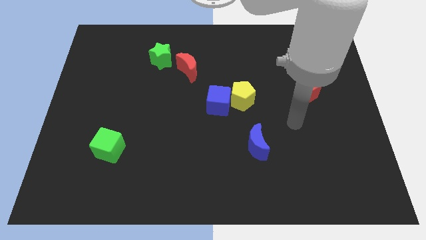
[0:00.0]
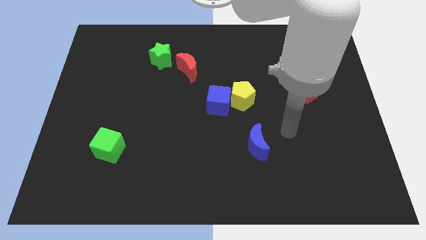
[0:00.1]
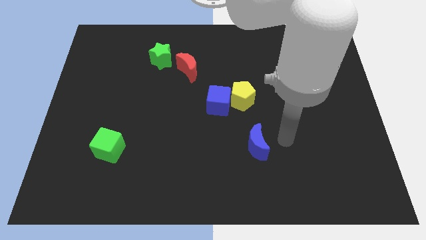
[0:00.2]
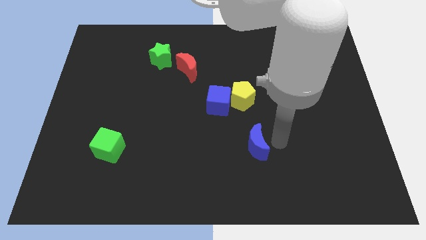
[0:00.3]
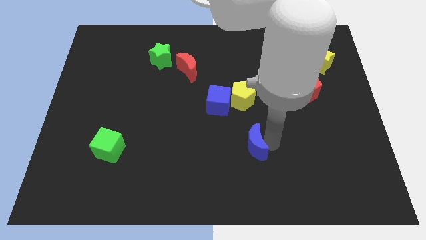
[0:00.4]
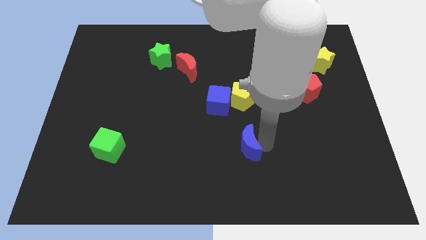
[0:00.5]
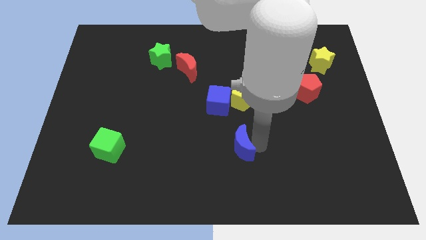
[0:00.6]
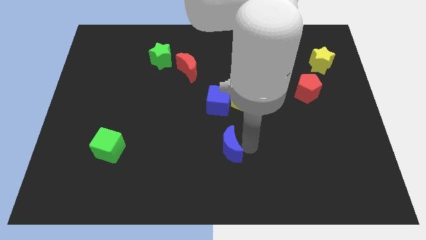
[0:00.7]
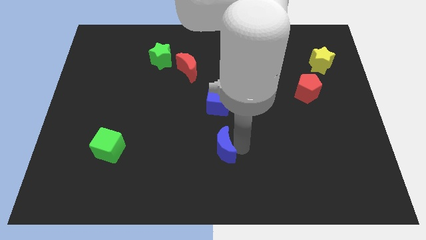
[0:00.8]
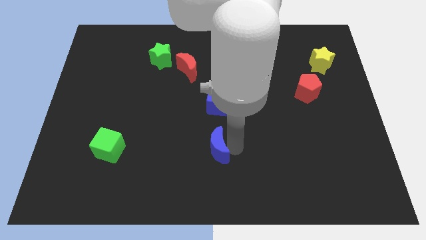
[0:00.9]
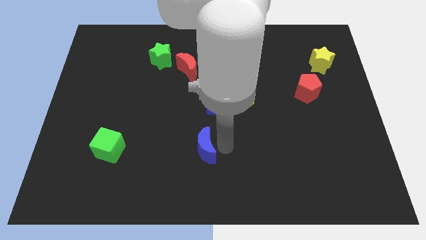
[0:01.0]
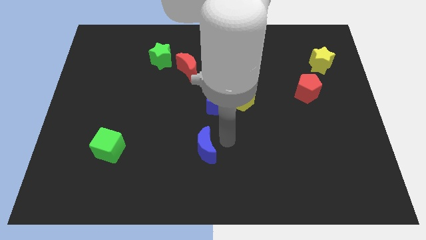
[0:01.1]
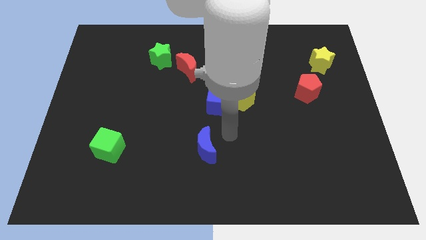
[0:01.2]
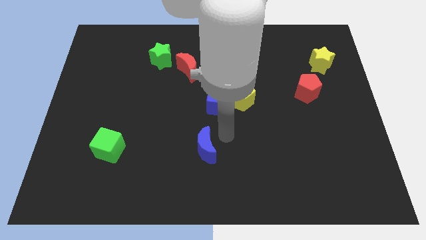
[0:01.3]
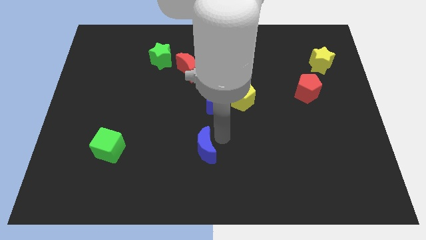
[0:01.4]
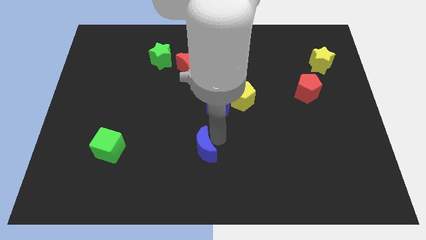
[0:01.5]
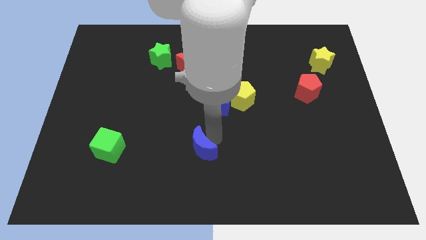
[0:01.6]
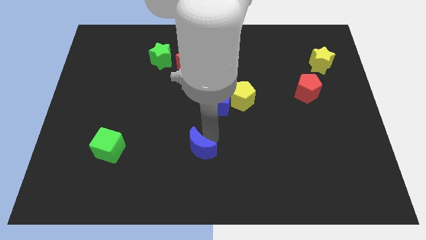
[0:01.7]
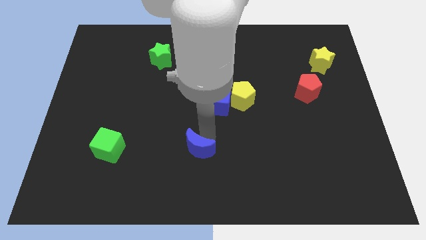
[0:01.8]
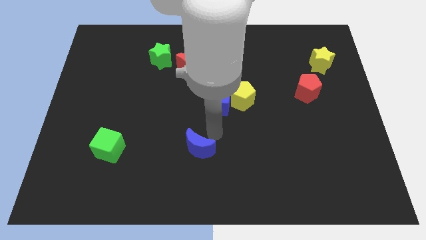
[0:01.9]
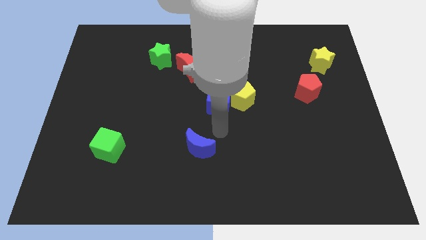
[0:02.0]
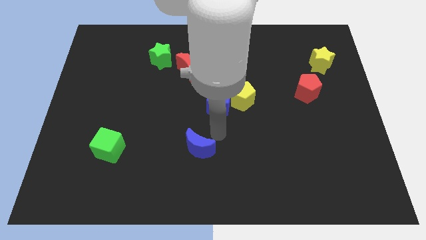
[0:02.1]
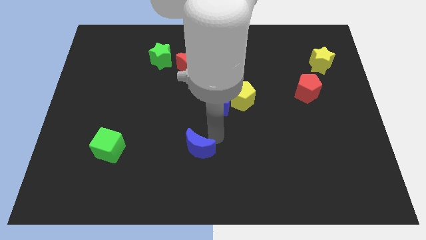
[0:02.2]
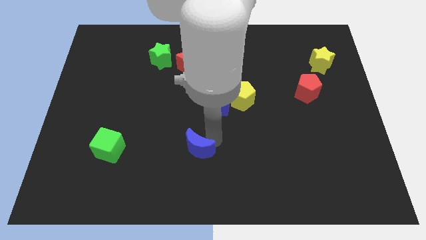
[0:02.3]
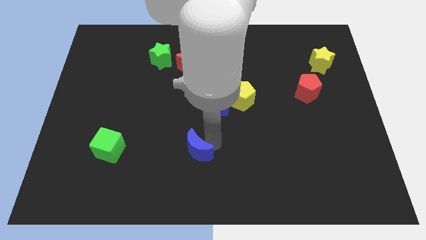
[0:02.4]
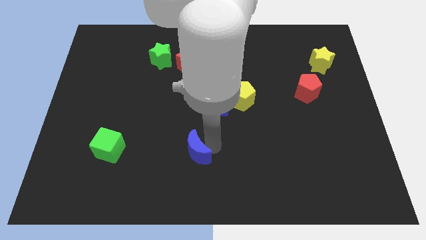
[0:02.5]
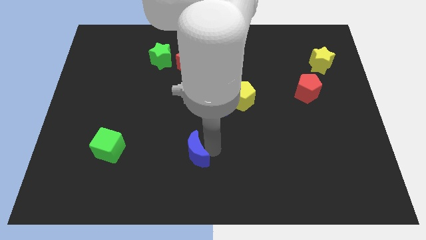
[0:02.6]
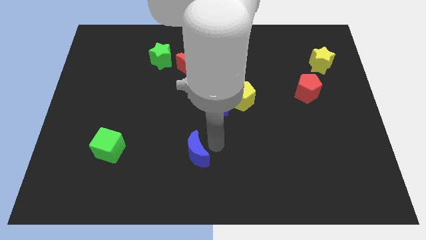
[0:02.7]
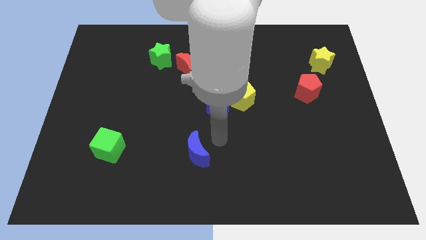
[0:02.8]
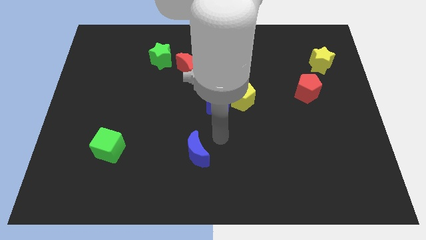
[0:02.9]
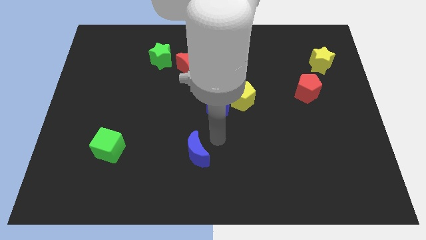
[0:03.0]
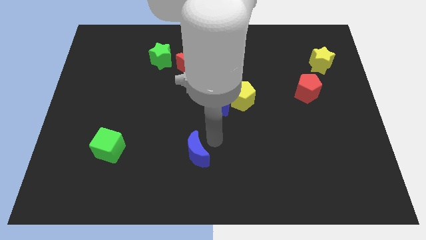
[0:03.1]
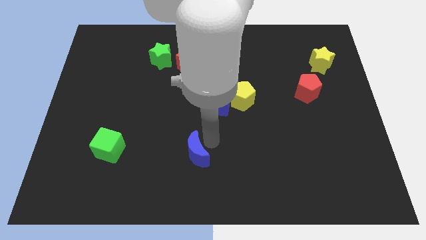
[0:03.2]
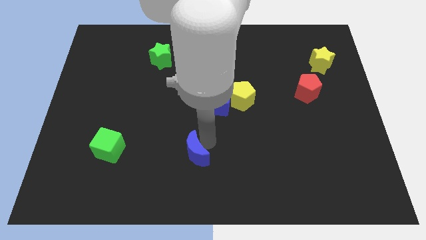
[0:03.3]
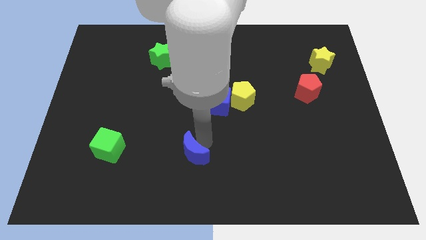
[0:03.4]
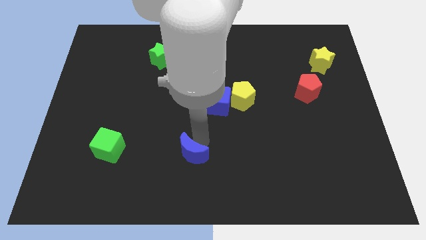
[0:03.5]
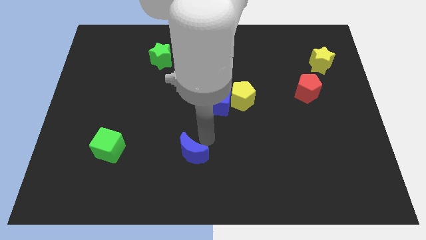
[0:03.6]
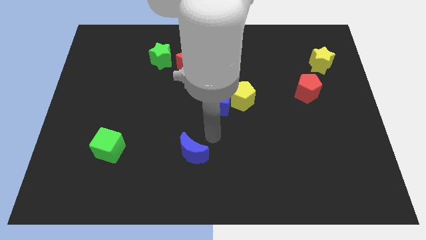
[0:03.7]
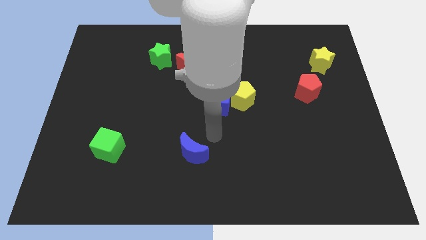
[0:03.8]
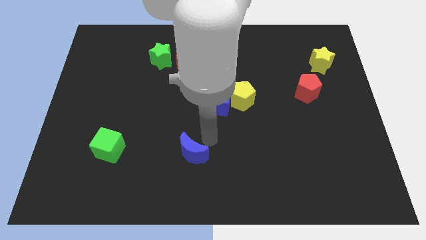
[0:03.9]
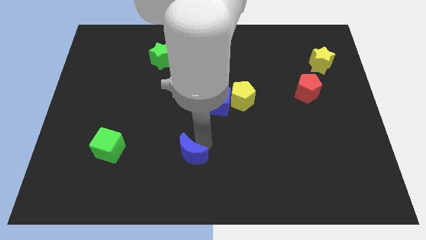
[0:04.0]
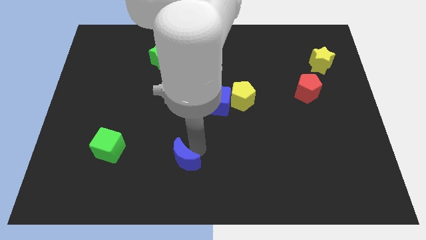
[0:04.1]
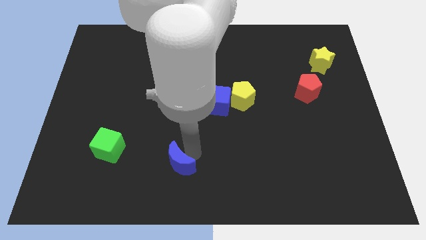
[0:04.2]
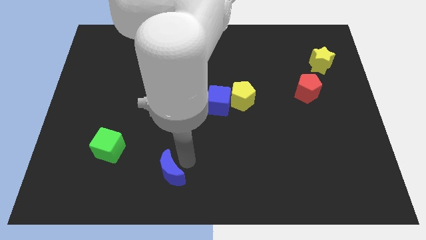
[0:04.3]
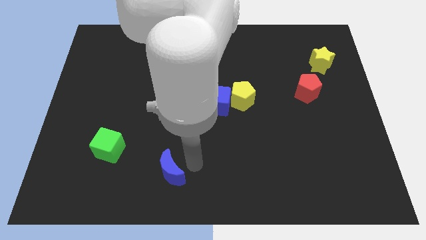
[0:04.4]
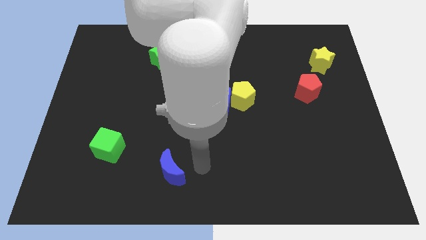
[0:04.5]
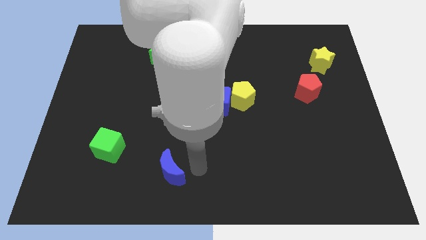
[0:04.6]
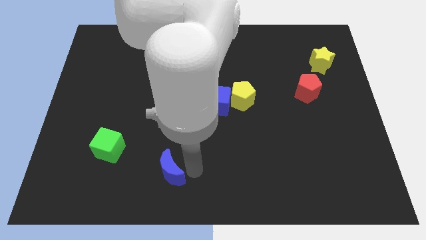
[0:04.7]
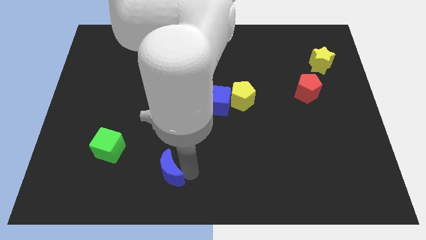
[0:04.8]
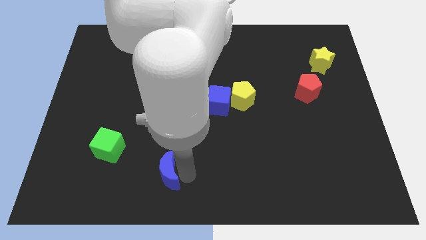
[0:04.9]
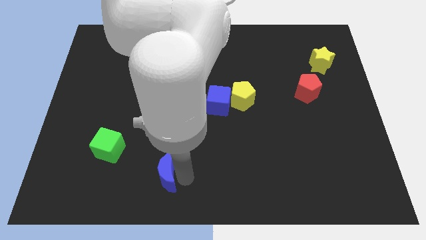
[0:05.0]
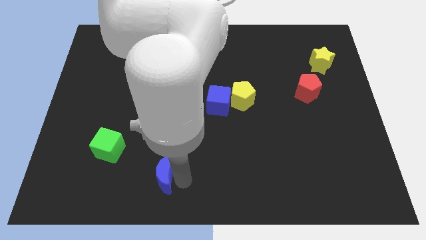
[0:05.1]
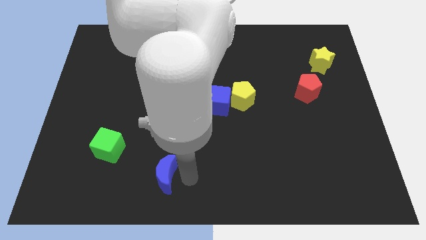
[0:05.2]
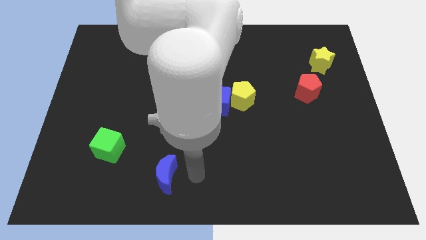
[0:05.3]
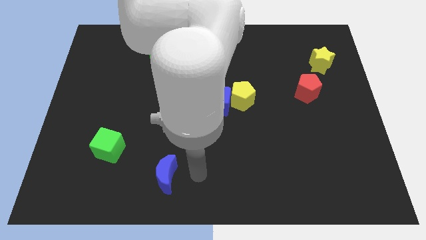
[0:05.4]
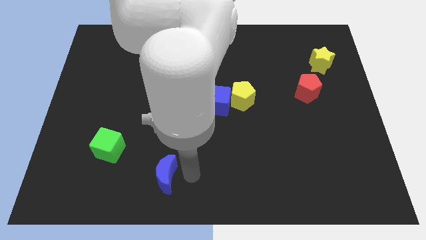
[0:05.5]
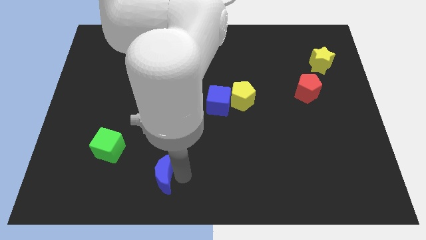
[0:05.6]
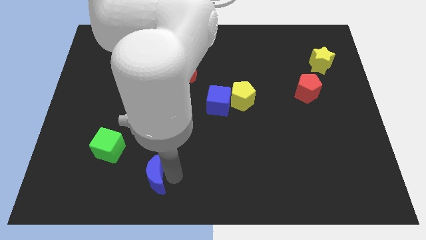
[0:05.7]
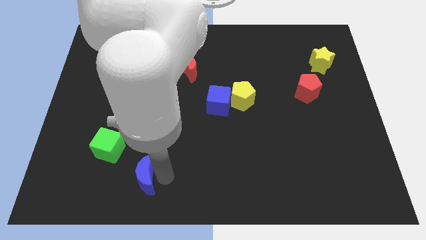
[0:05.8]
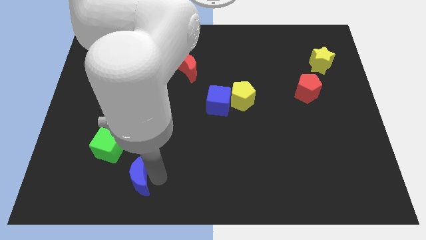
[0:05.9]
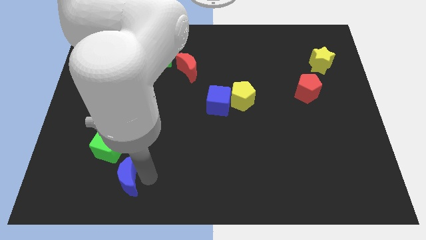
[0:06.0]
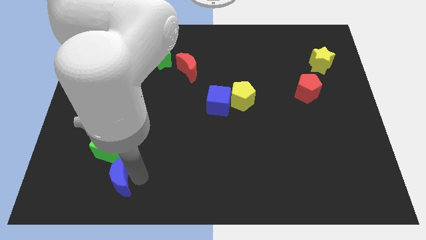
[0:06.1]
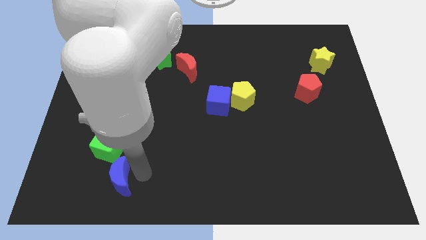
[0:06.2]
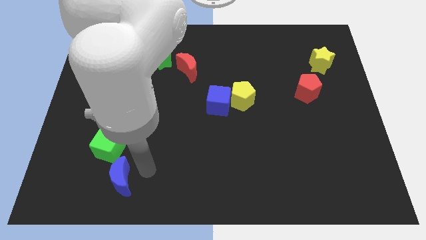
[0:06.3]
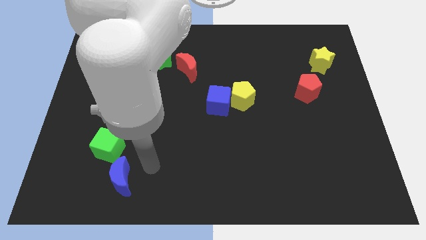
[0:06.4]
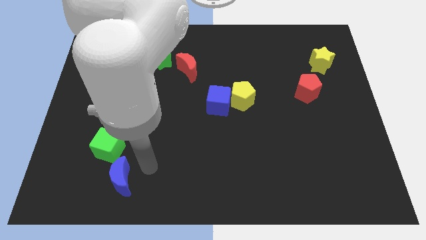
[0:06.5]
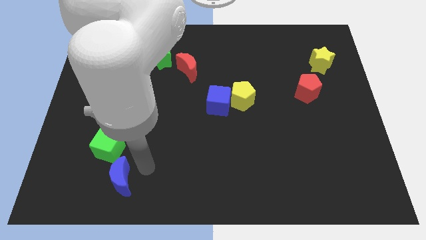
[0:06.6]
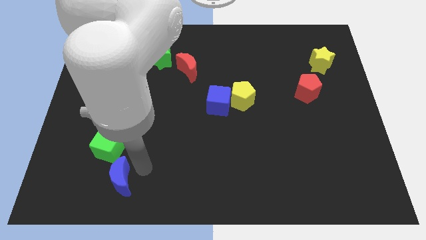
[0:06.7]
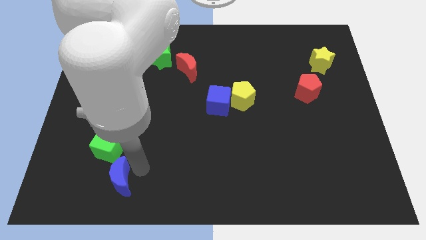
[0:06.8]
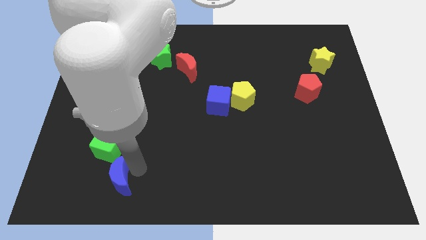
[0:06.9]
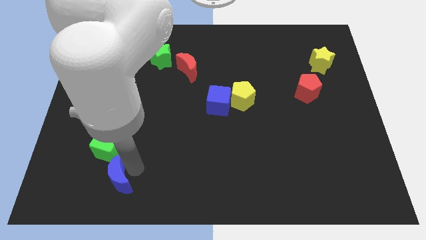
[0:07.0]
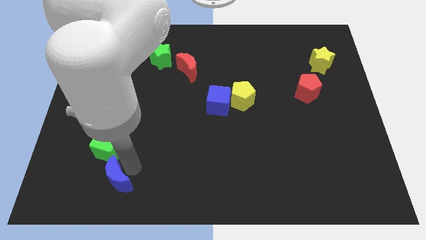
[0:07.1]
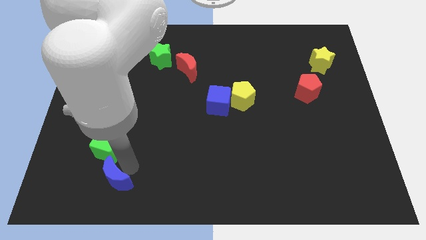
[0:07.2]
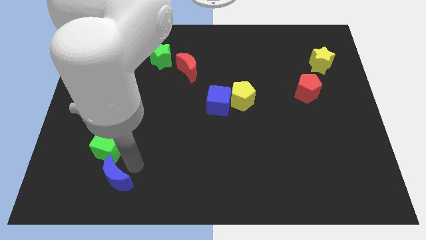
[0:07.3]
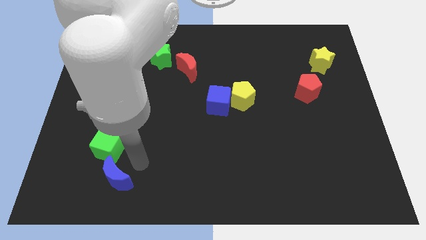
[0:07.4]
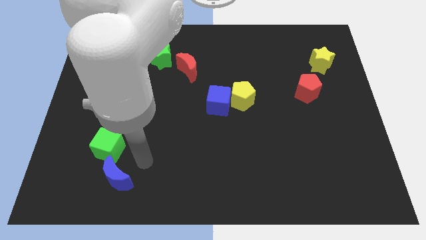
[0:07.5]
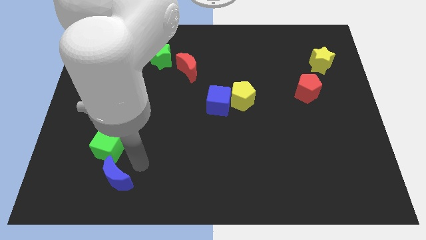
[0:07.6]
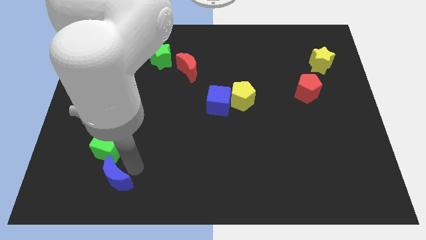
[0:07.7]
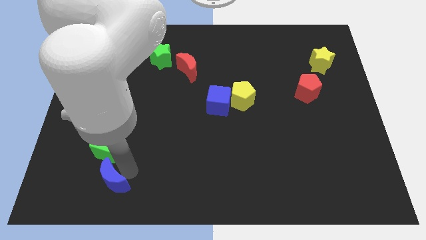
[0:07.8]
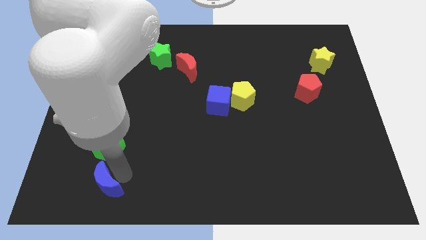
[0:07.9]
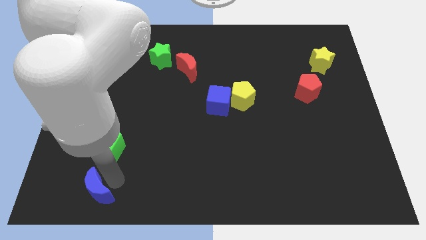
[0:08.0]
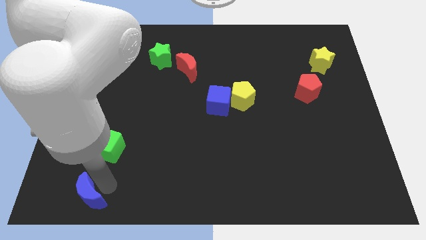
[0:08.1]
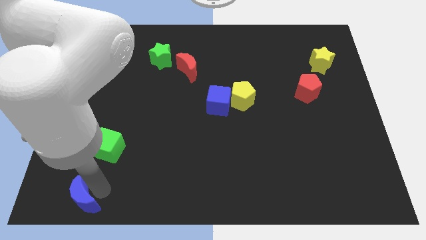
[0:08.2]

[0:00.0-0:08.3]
slide the blue moon to the bottom left of the board
